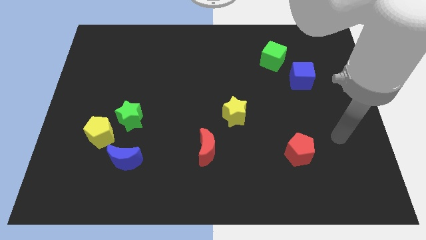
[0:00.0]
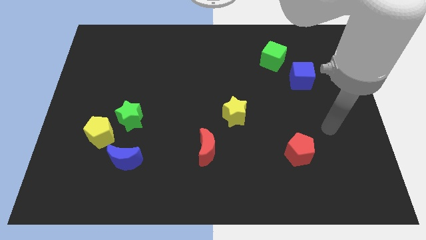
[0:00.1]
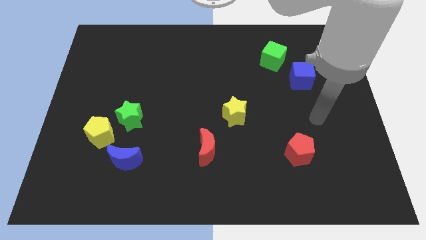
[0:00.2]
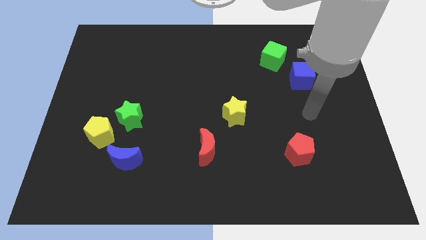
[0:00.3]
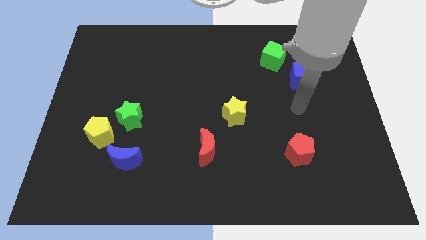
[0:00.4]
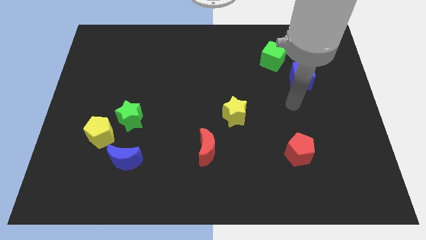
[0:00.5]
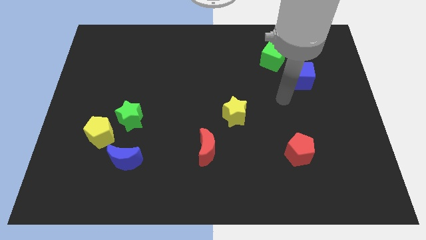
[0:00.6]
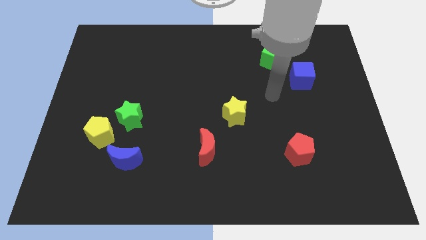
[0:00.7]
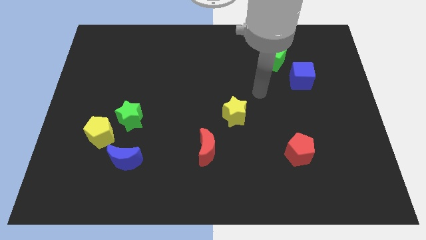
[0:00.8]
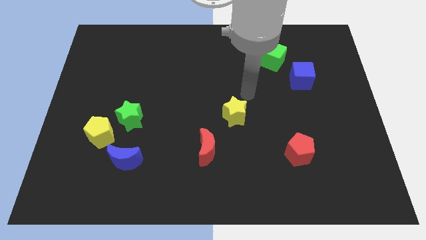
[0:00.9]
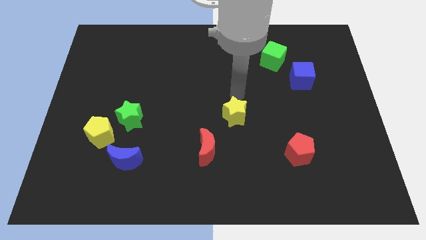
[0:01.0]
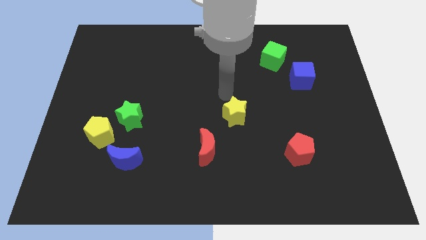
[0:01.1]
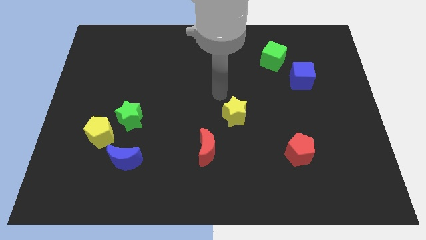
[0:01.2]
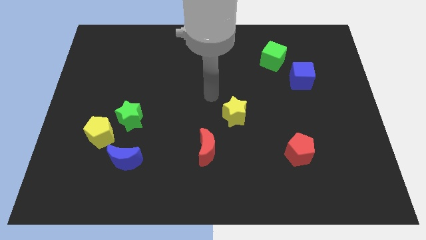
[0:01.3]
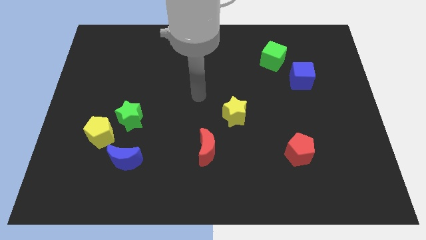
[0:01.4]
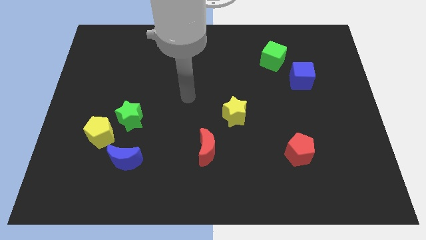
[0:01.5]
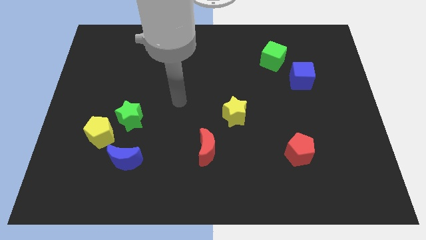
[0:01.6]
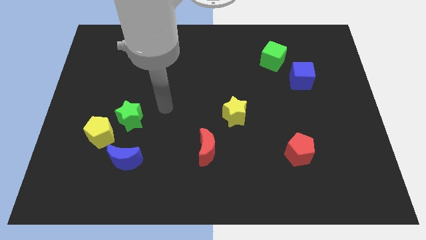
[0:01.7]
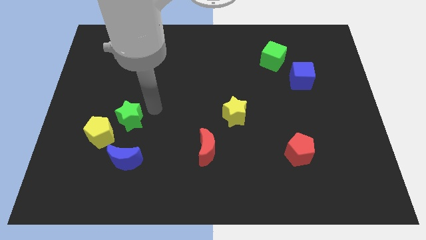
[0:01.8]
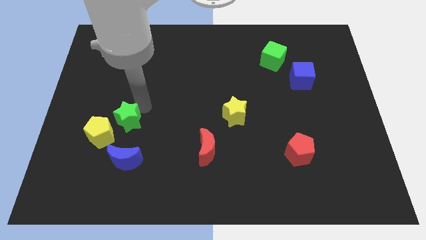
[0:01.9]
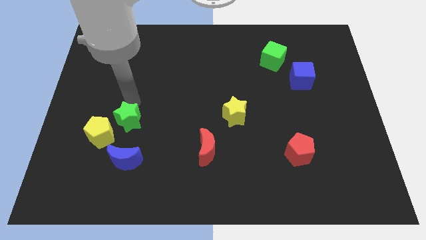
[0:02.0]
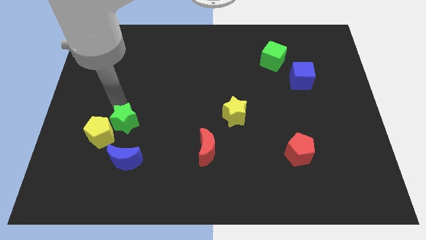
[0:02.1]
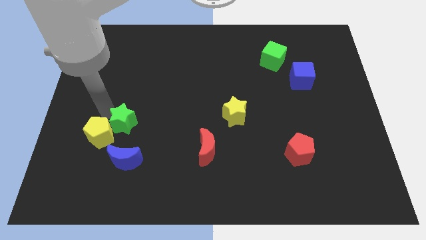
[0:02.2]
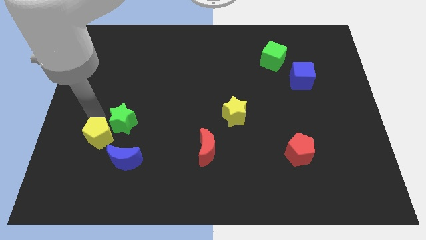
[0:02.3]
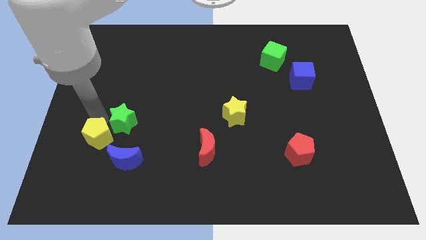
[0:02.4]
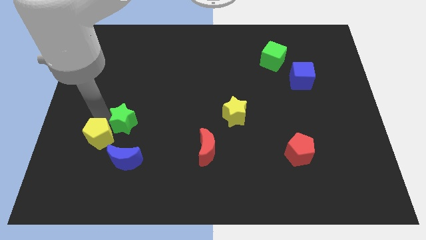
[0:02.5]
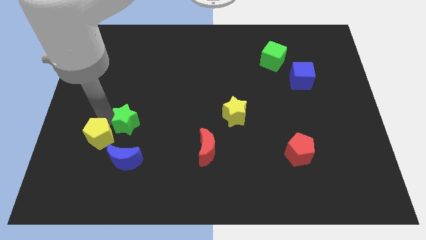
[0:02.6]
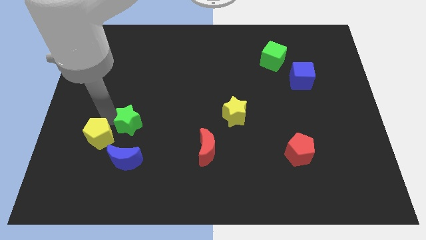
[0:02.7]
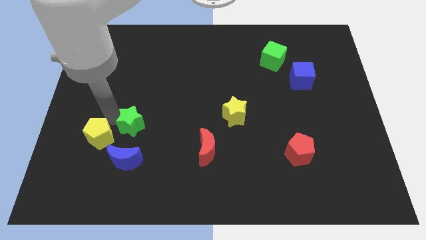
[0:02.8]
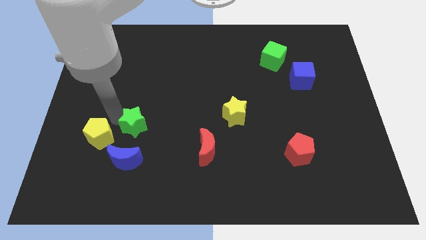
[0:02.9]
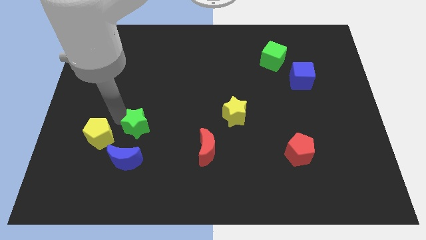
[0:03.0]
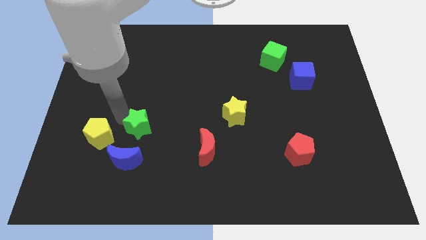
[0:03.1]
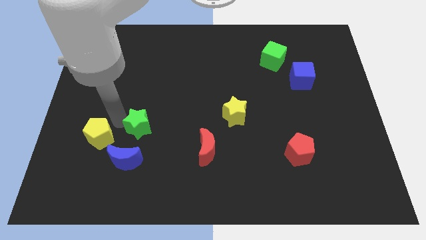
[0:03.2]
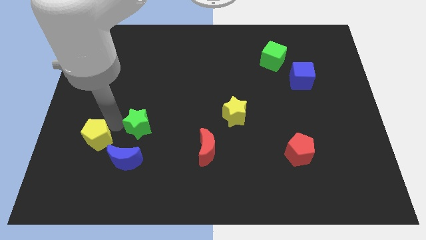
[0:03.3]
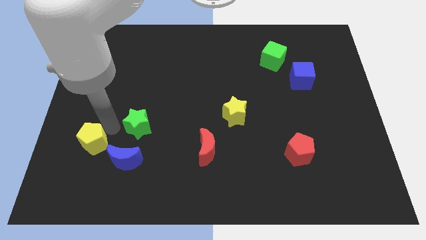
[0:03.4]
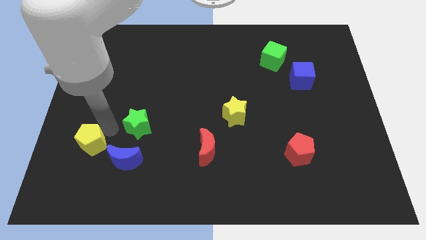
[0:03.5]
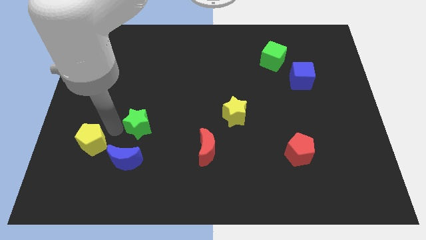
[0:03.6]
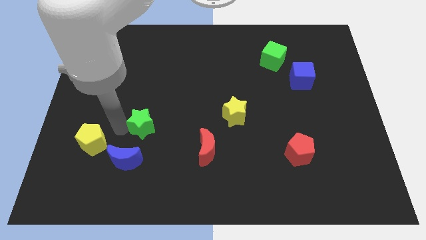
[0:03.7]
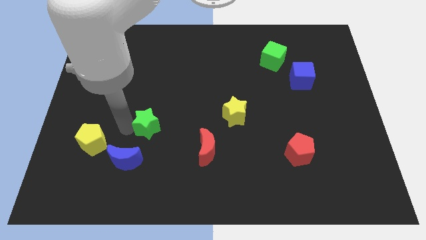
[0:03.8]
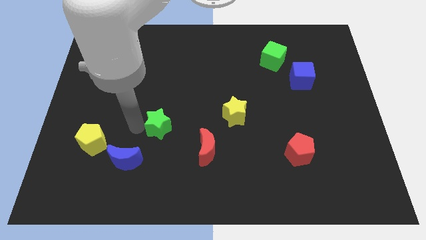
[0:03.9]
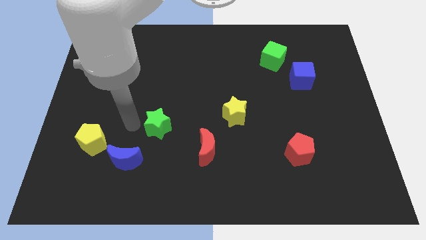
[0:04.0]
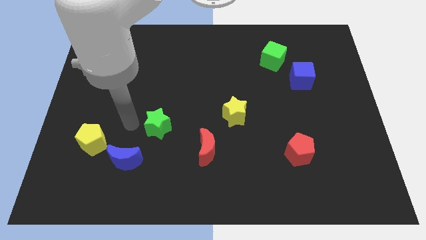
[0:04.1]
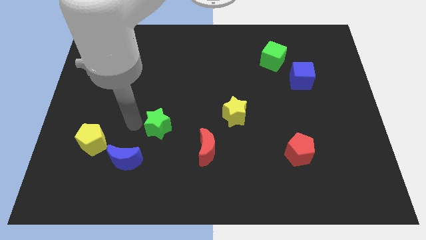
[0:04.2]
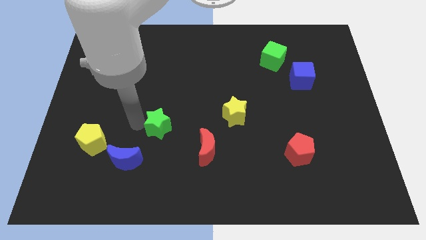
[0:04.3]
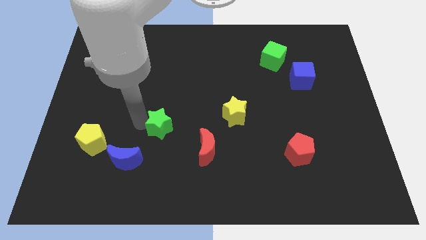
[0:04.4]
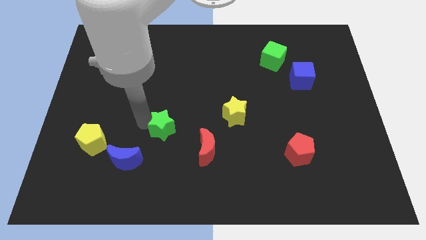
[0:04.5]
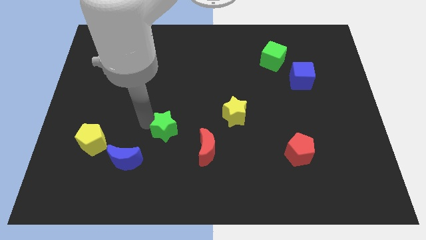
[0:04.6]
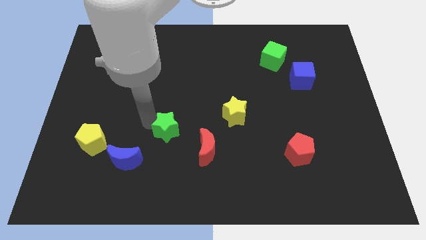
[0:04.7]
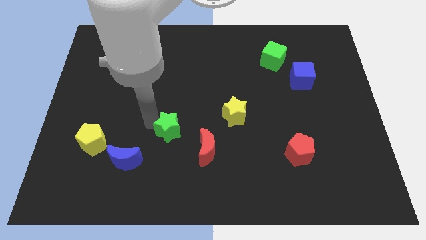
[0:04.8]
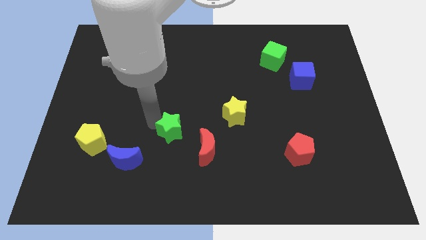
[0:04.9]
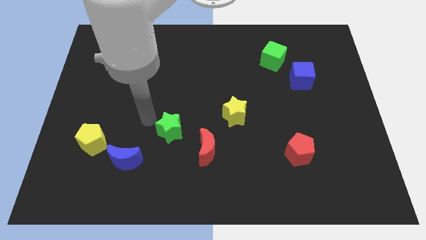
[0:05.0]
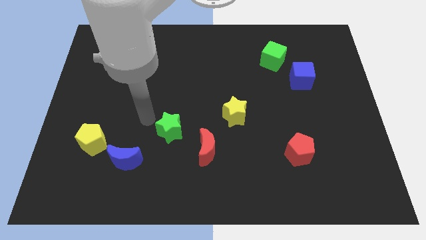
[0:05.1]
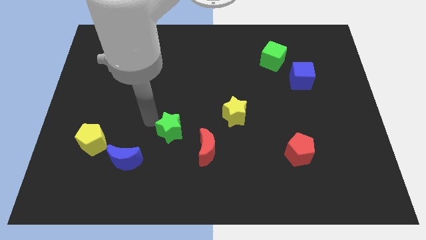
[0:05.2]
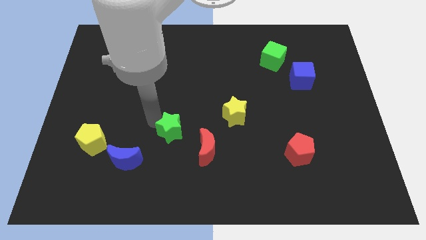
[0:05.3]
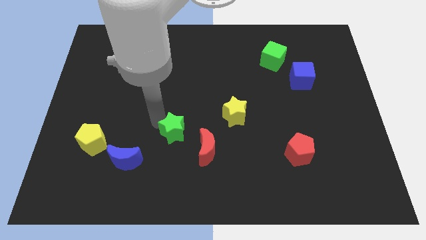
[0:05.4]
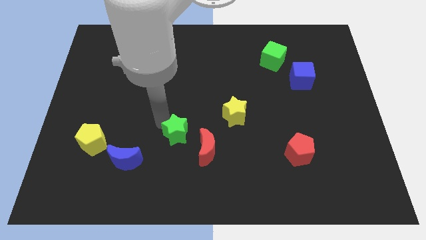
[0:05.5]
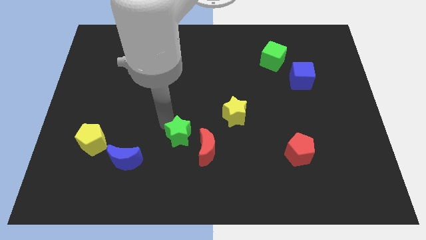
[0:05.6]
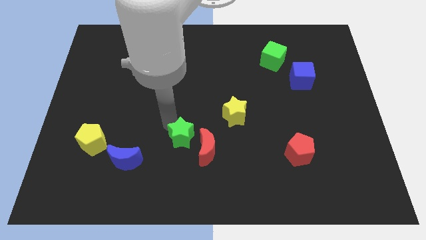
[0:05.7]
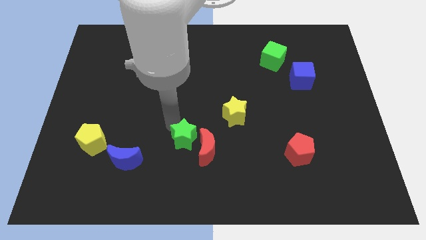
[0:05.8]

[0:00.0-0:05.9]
push the green star close to the red moon

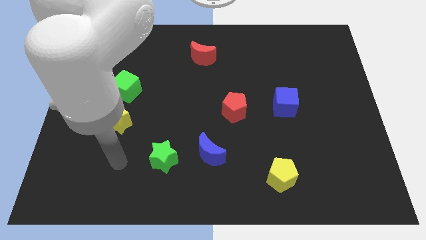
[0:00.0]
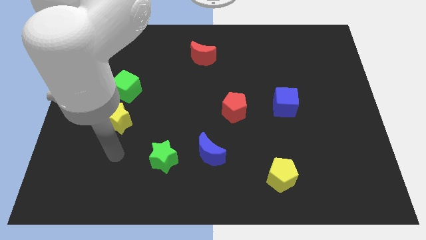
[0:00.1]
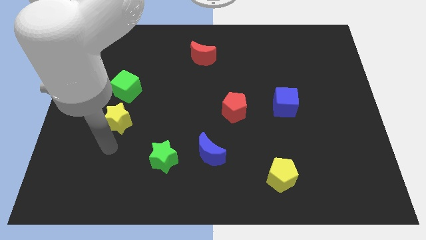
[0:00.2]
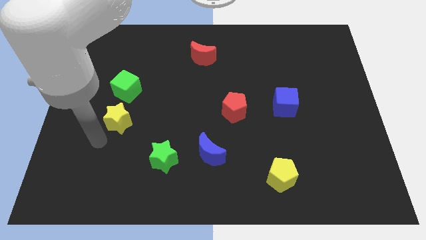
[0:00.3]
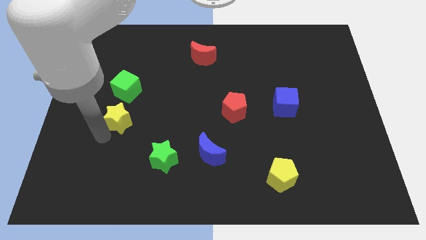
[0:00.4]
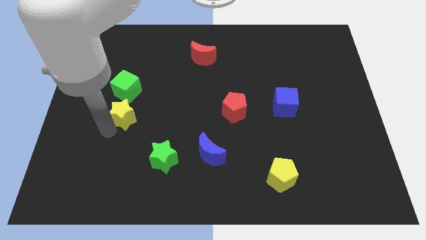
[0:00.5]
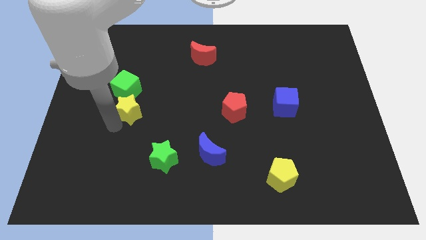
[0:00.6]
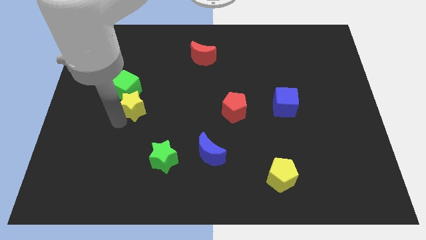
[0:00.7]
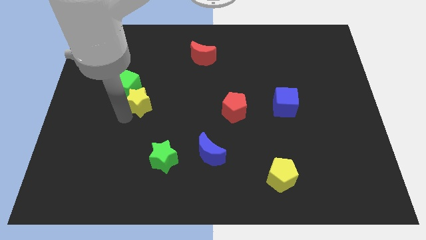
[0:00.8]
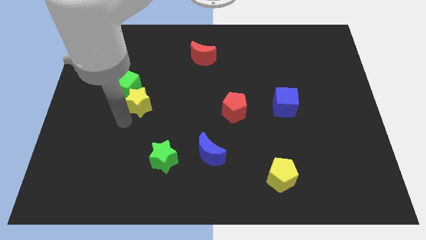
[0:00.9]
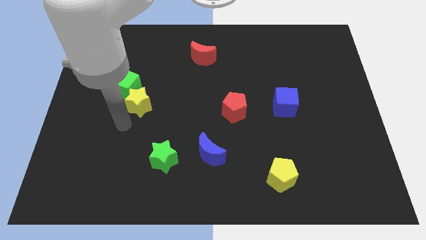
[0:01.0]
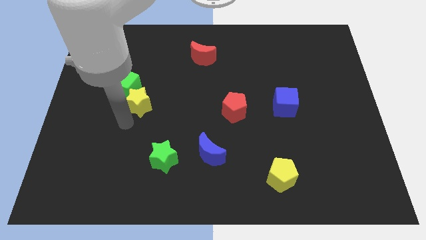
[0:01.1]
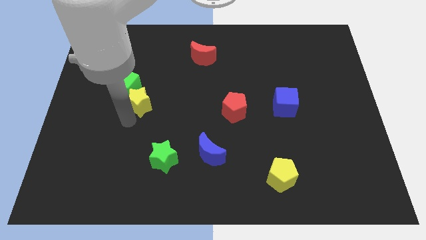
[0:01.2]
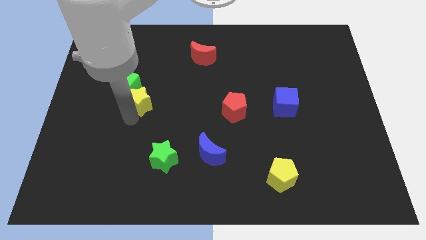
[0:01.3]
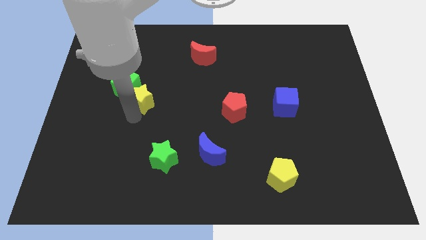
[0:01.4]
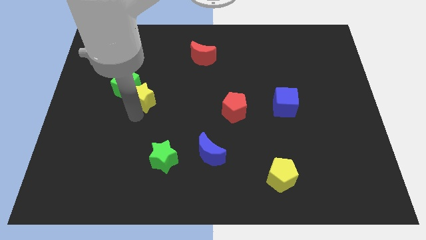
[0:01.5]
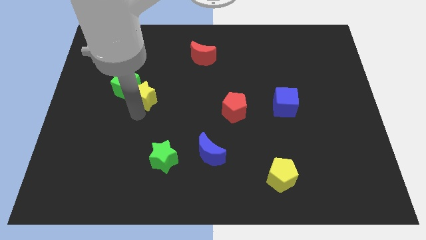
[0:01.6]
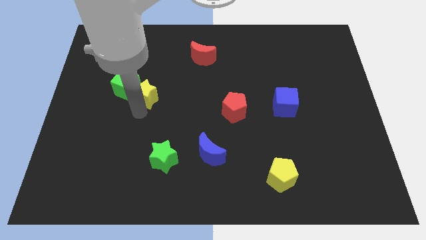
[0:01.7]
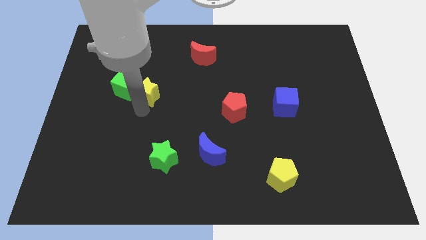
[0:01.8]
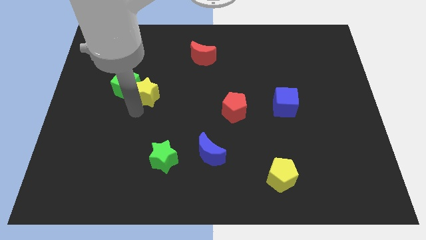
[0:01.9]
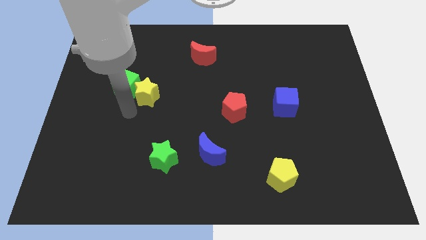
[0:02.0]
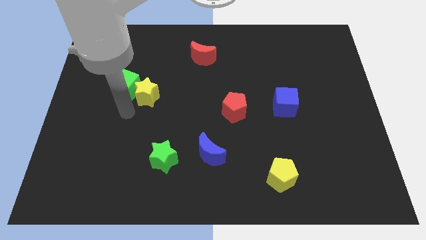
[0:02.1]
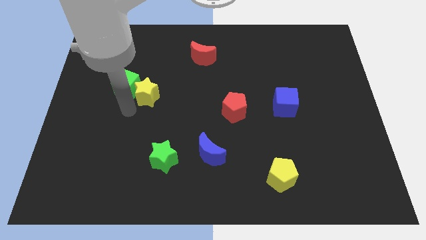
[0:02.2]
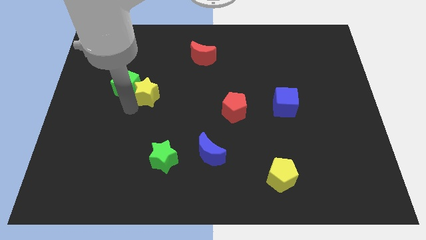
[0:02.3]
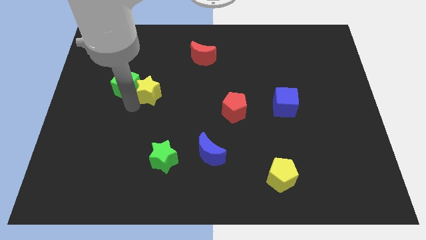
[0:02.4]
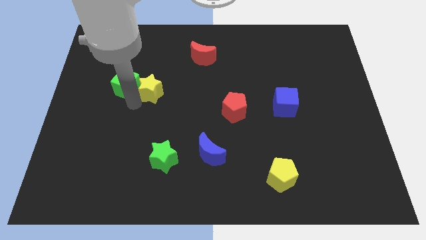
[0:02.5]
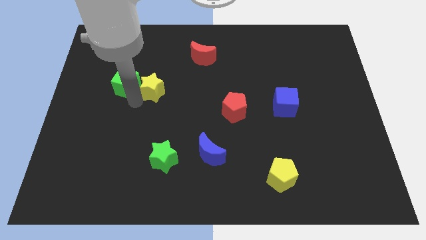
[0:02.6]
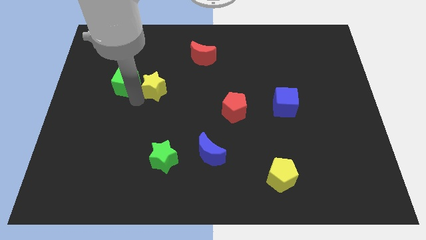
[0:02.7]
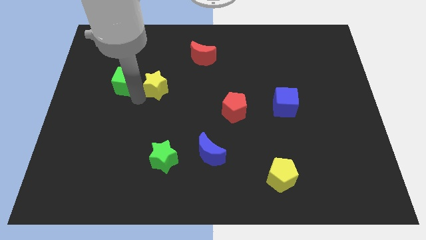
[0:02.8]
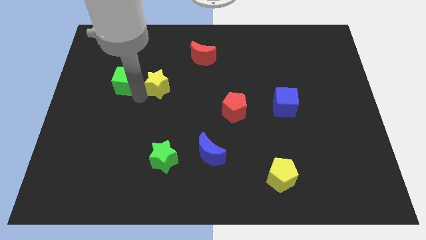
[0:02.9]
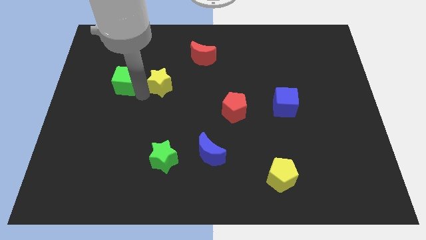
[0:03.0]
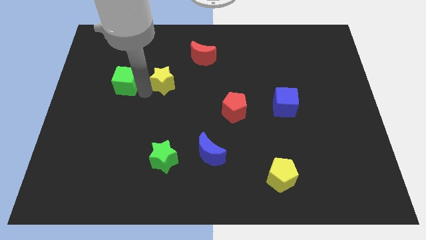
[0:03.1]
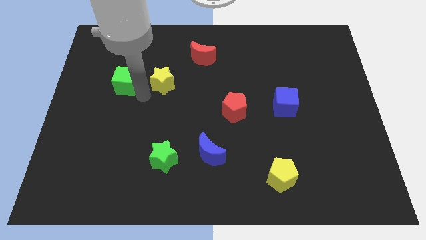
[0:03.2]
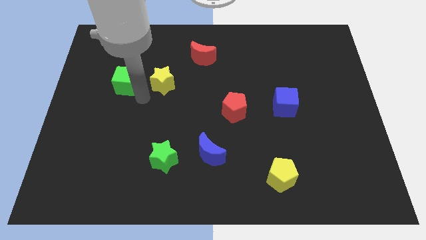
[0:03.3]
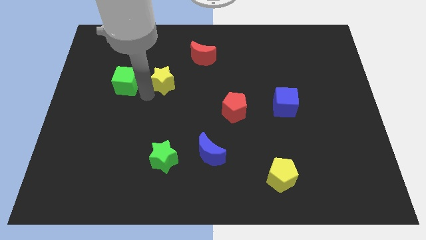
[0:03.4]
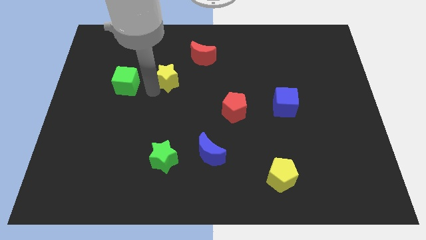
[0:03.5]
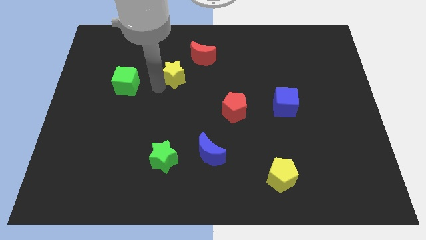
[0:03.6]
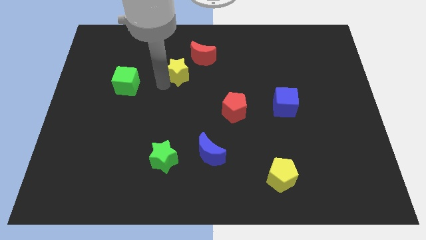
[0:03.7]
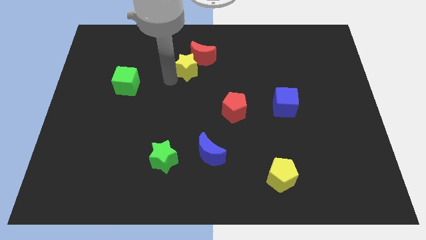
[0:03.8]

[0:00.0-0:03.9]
push the yellow star next to the red moon
